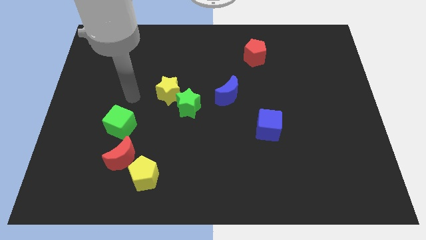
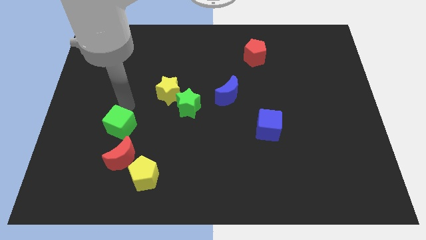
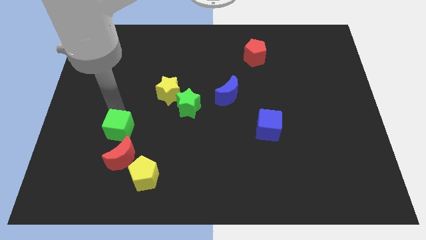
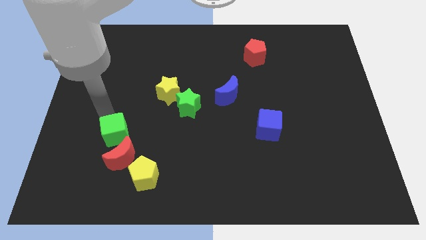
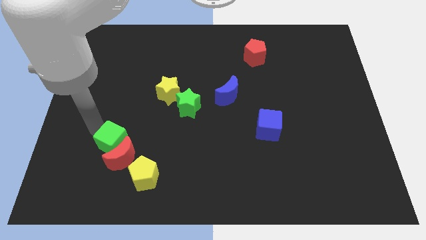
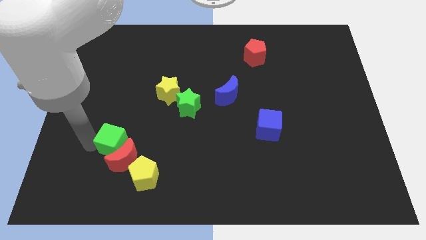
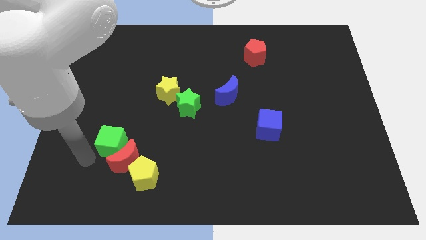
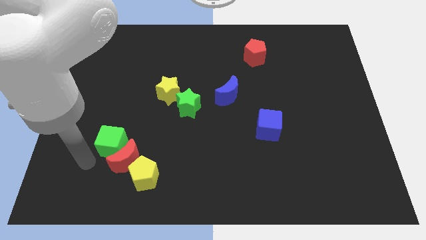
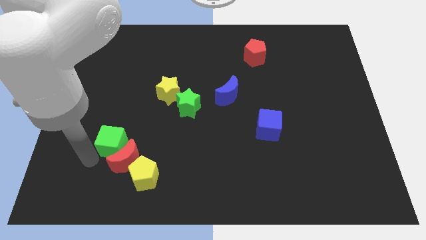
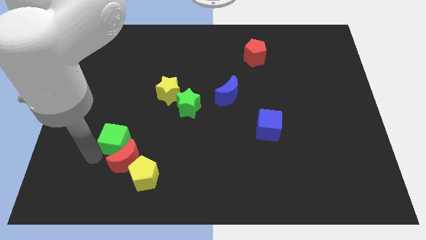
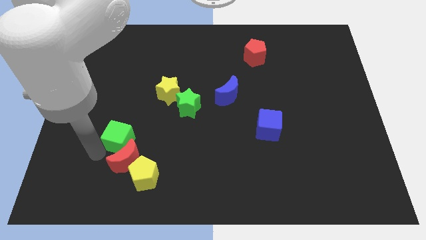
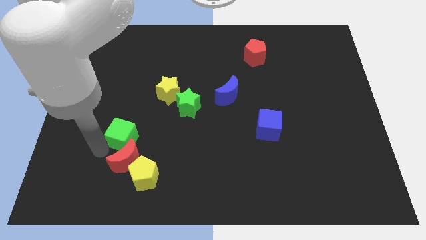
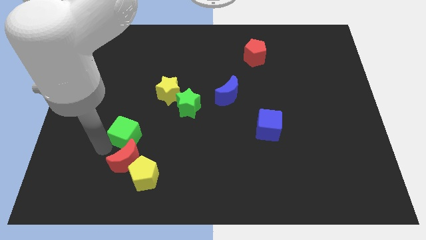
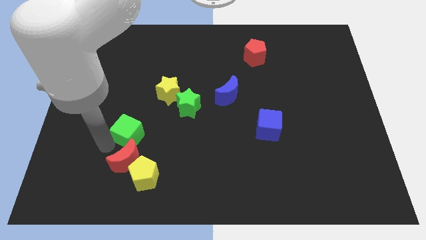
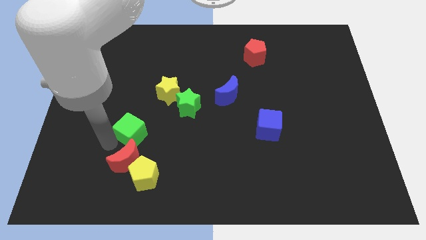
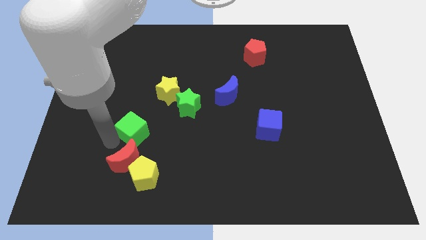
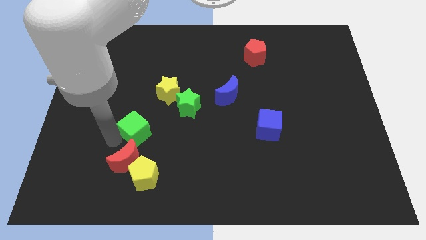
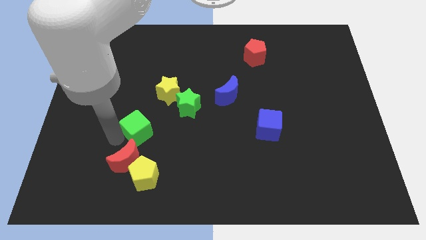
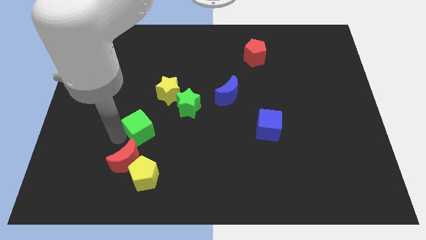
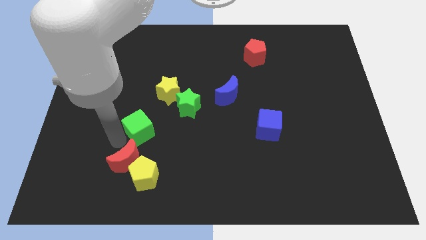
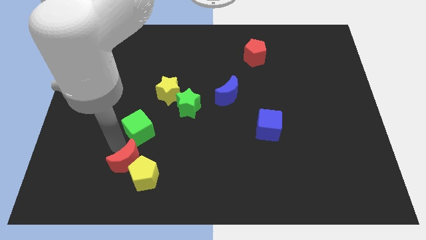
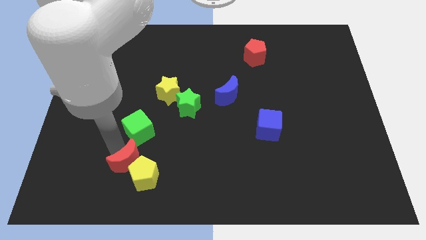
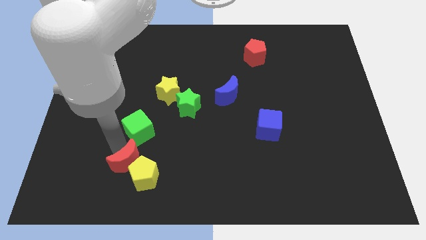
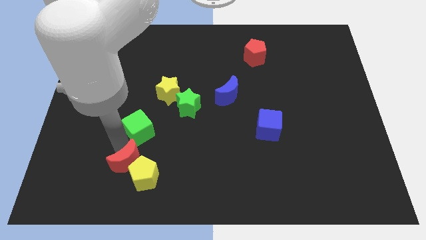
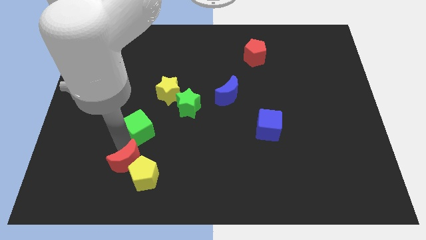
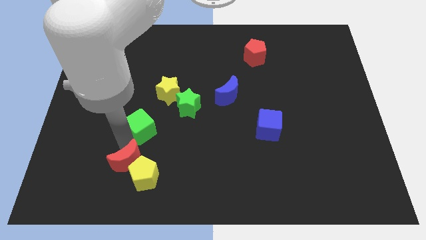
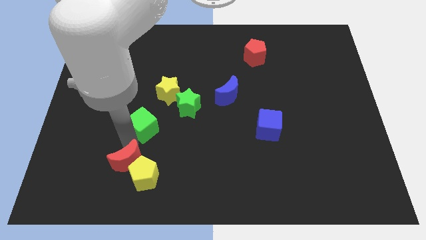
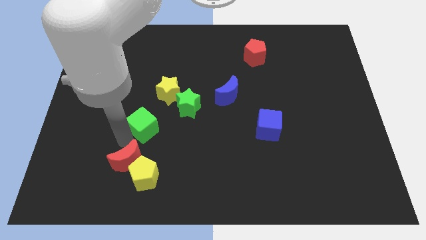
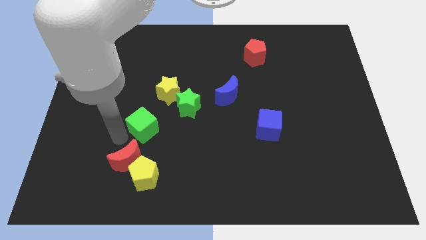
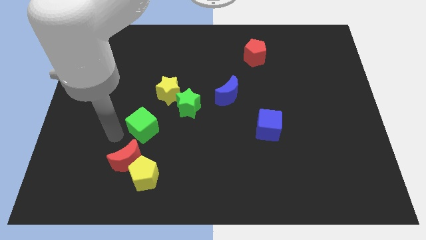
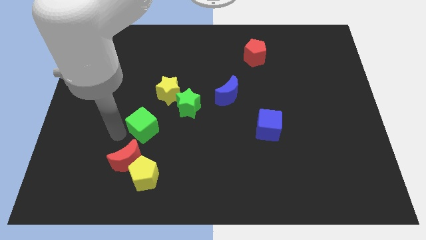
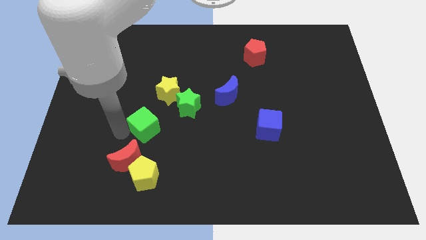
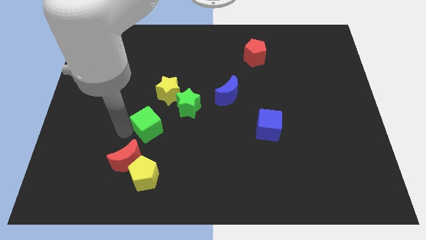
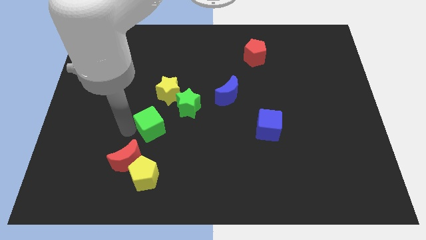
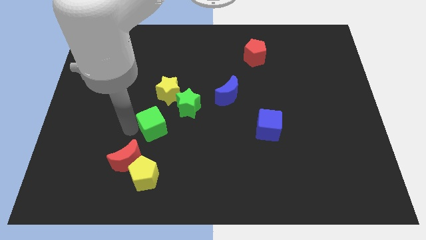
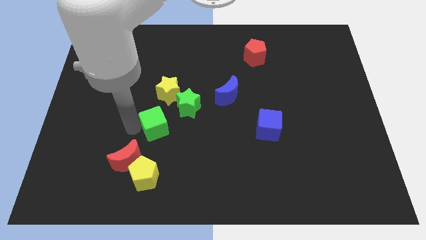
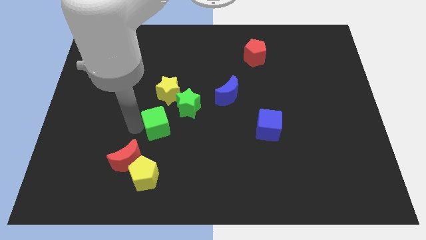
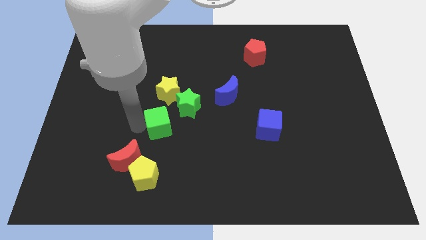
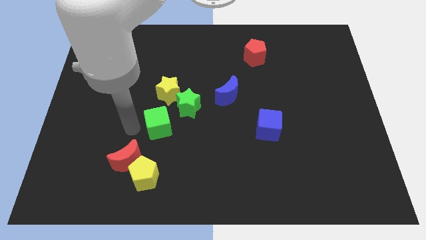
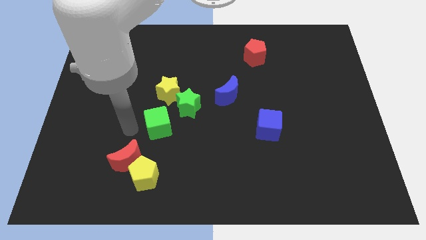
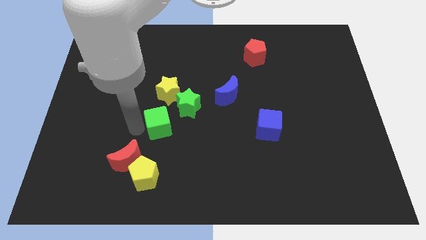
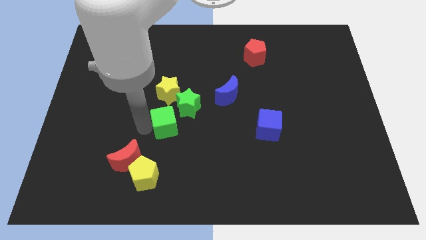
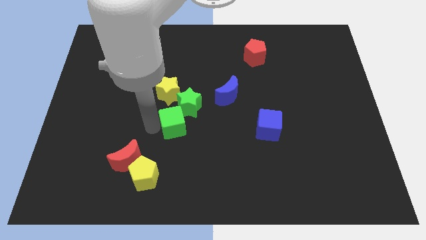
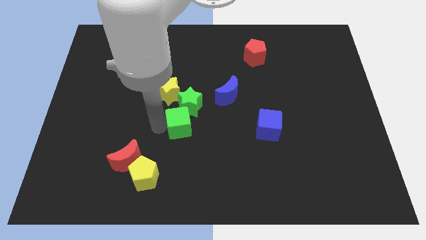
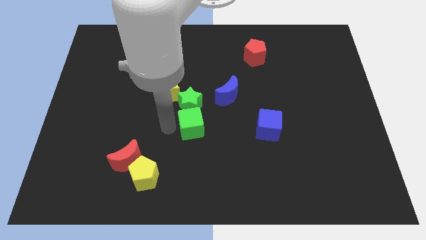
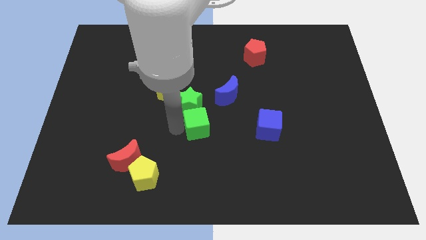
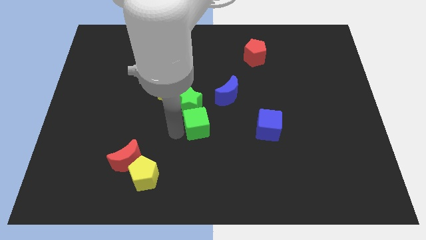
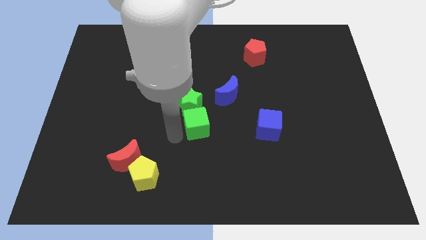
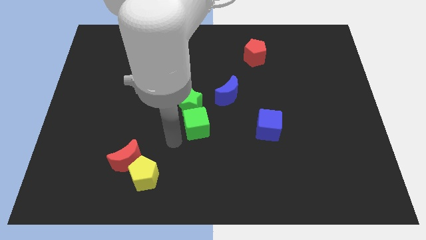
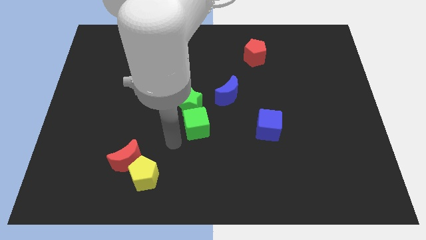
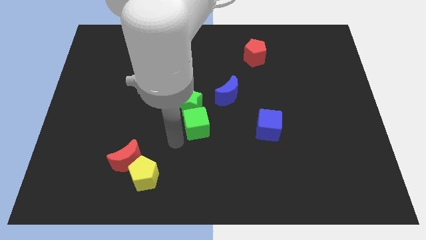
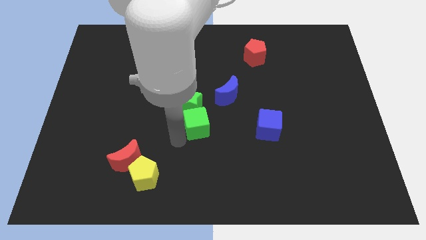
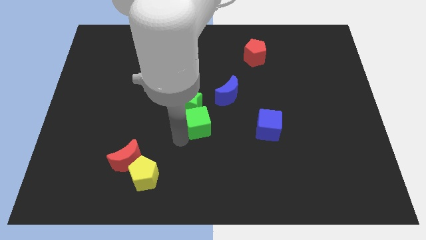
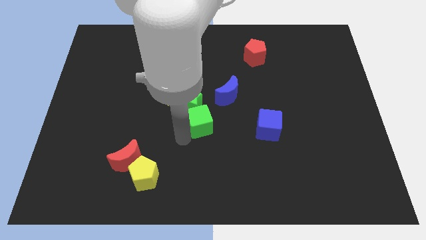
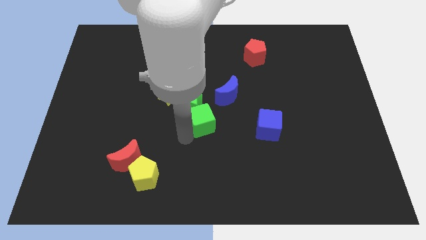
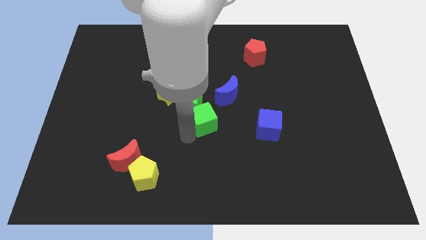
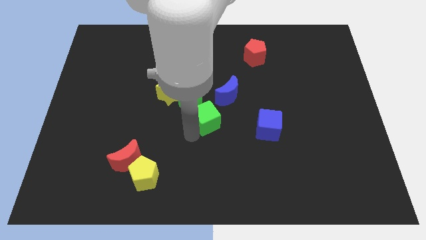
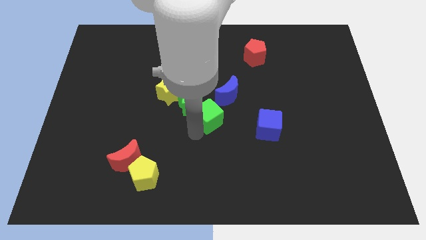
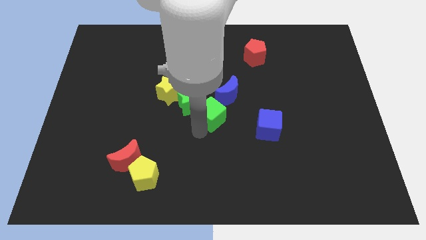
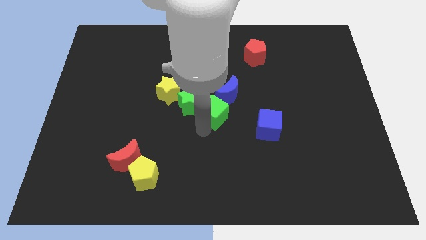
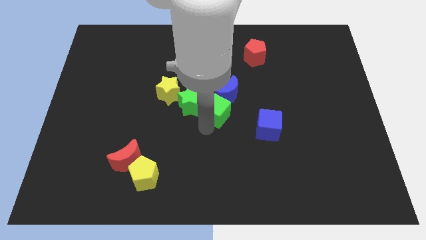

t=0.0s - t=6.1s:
slide the green cube towards the blue moon

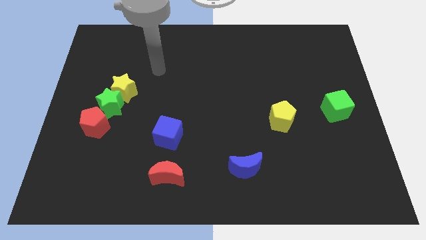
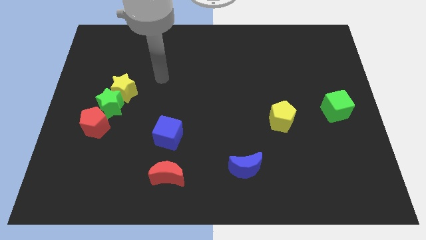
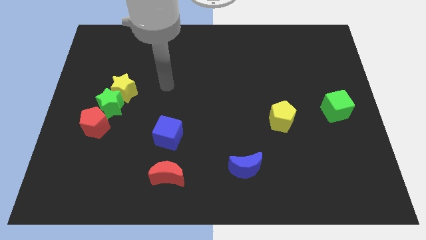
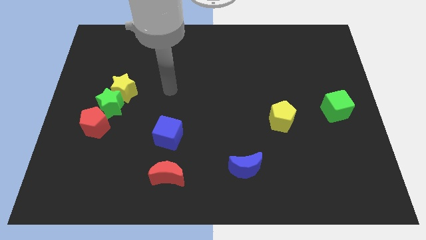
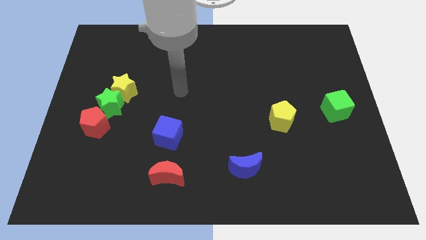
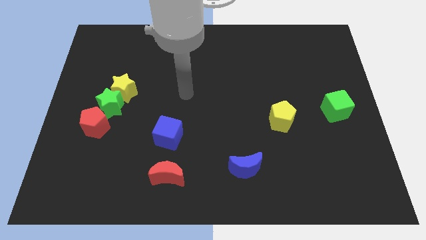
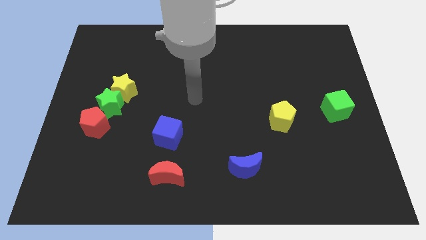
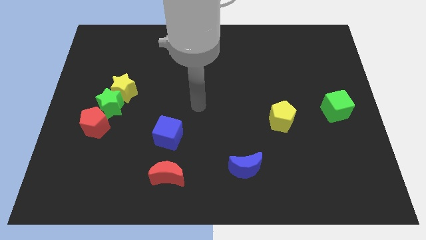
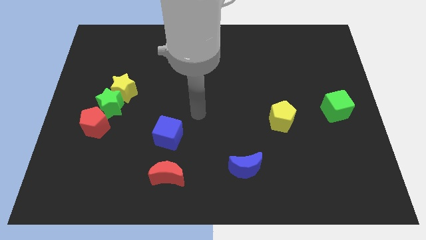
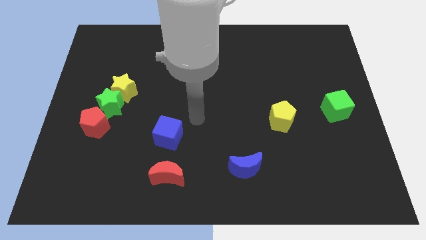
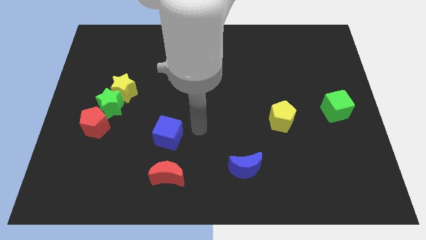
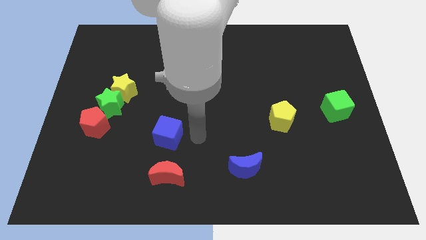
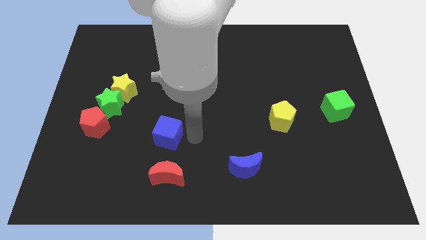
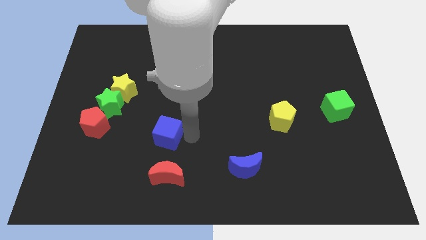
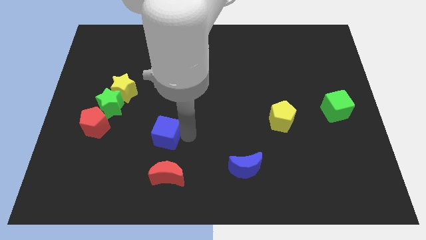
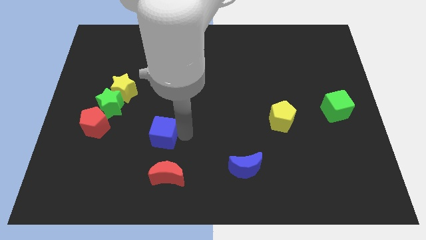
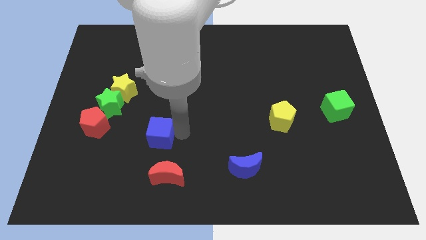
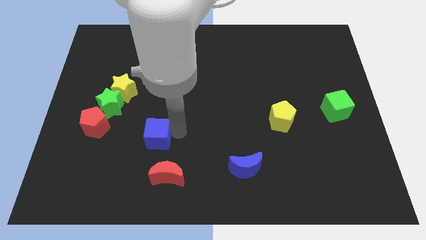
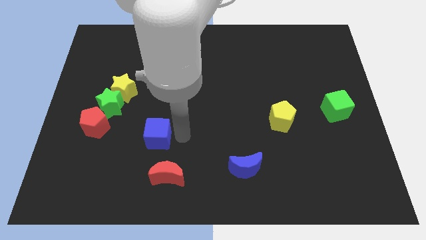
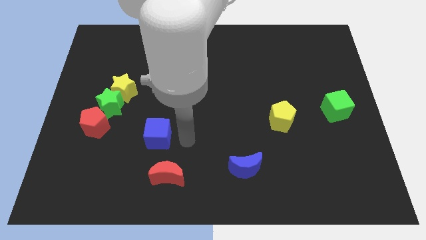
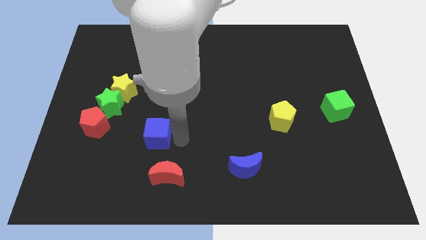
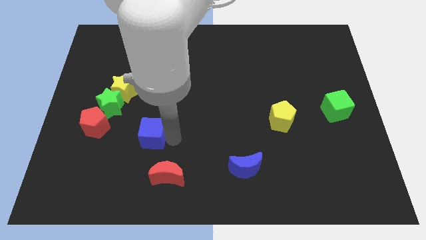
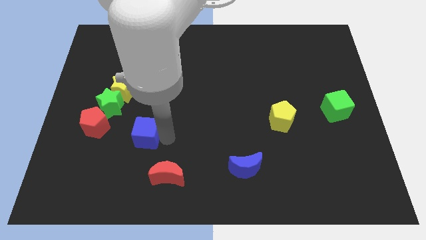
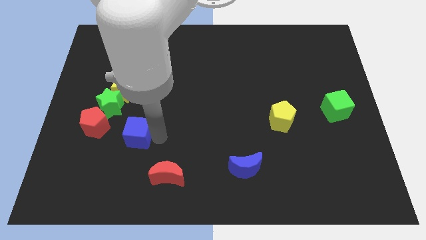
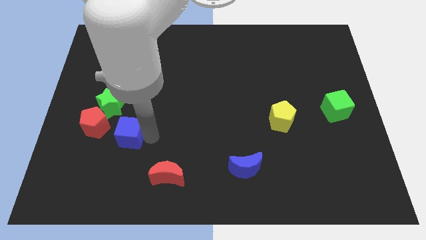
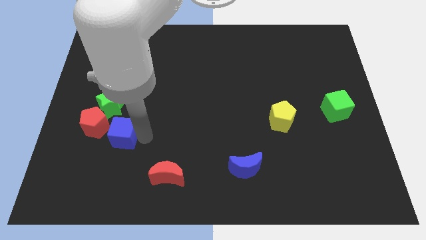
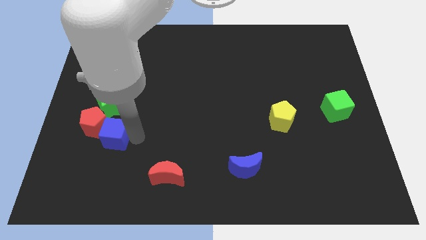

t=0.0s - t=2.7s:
move the blue cube towards the red pentagon
